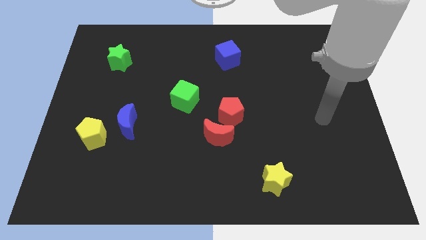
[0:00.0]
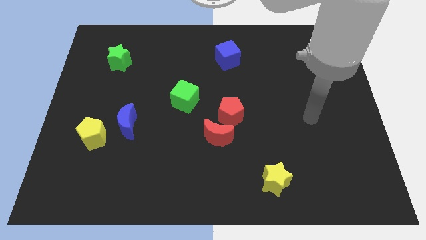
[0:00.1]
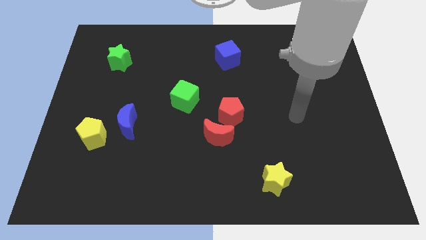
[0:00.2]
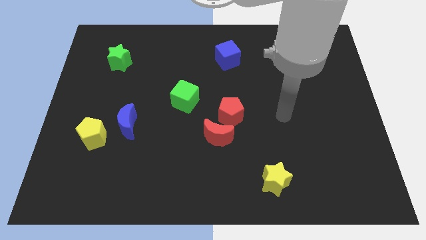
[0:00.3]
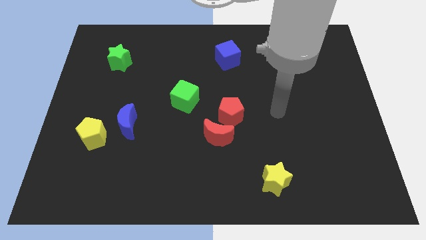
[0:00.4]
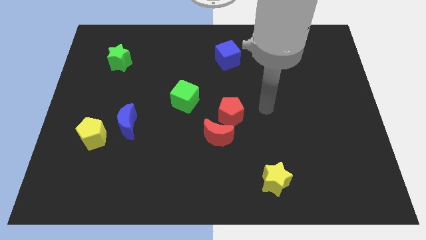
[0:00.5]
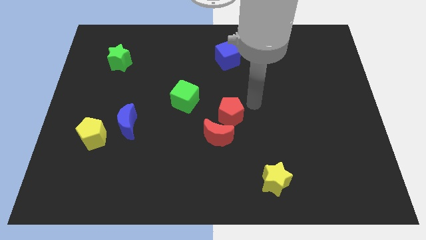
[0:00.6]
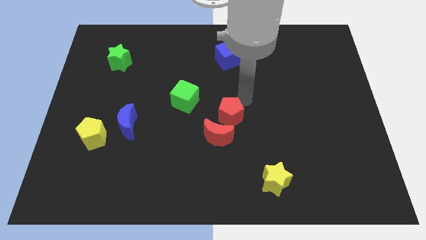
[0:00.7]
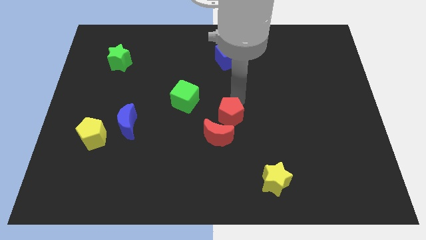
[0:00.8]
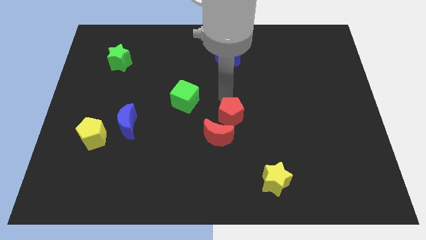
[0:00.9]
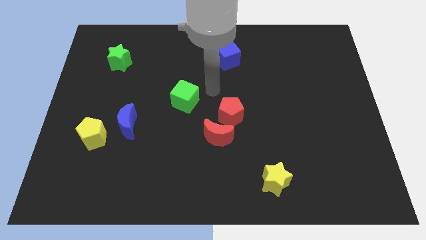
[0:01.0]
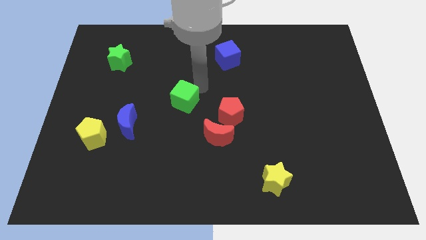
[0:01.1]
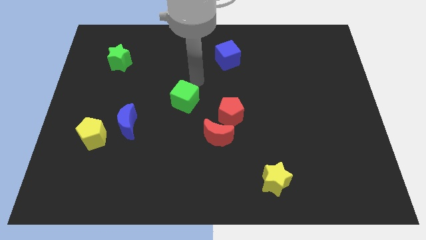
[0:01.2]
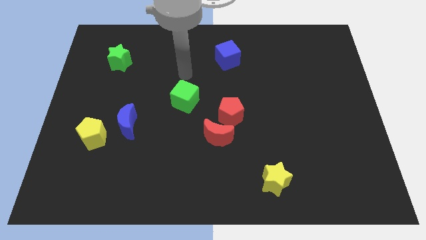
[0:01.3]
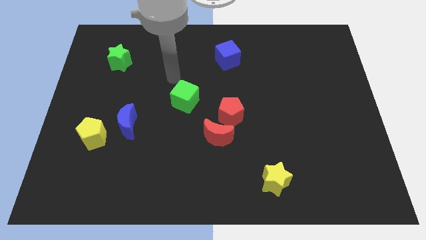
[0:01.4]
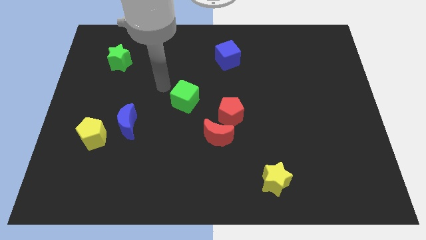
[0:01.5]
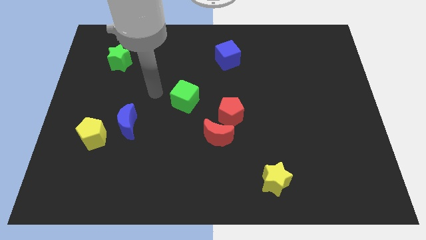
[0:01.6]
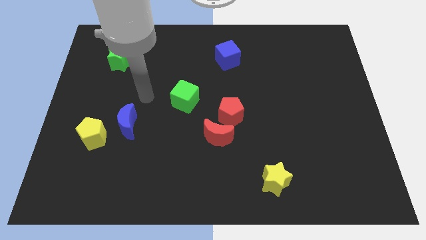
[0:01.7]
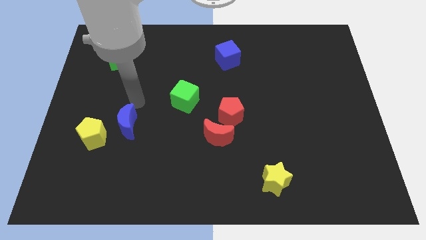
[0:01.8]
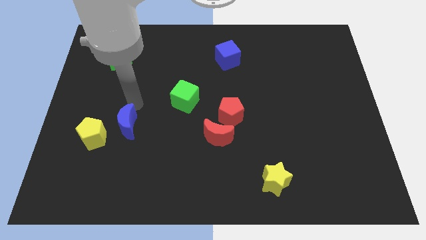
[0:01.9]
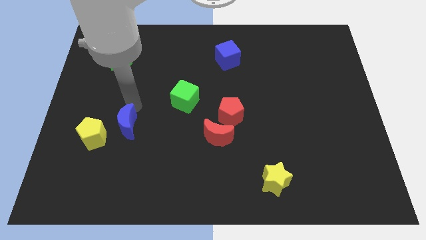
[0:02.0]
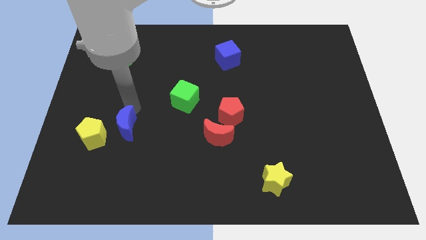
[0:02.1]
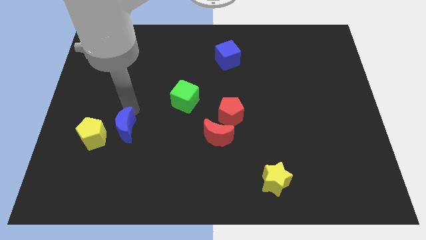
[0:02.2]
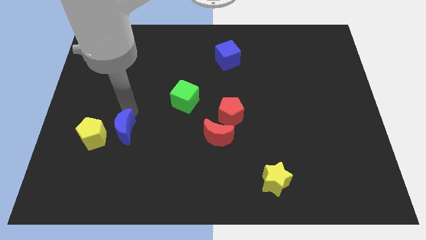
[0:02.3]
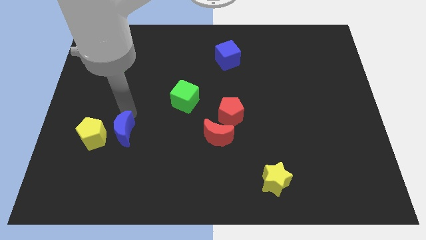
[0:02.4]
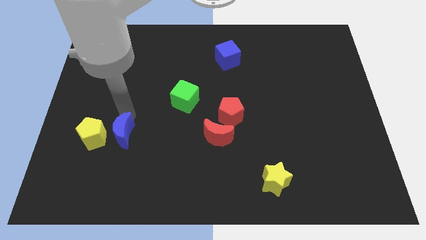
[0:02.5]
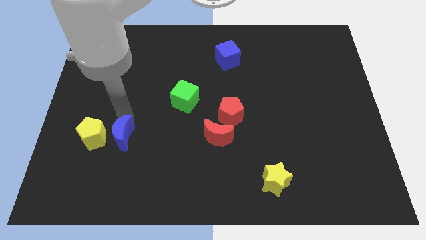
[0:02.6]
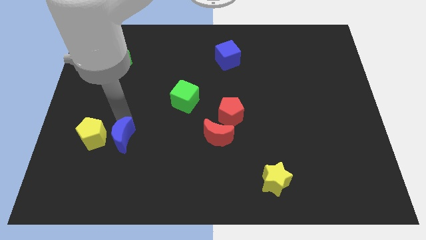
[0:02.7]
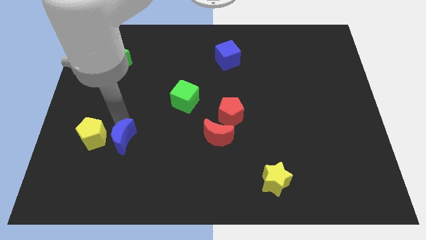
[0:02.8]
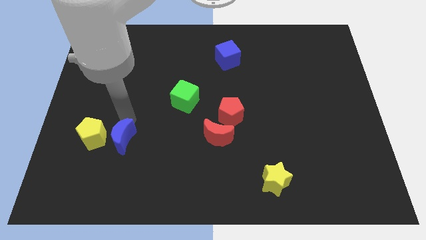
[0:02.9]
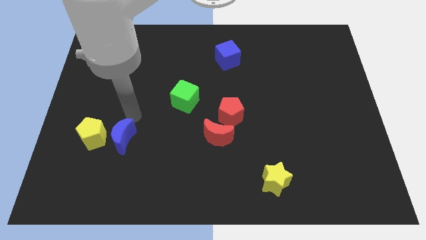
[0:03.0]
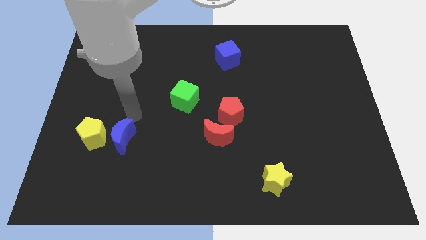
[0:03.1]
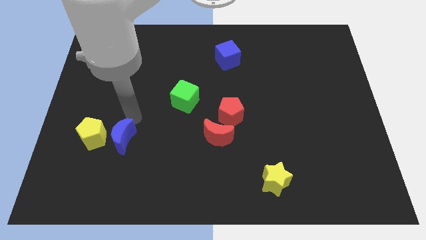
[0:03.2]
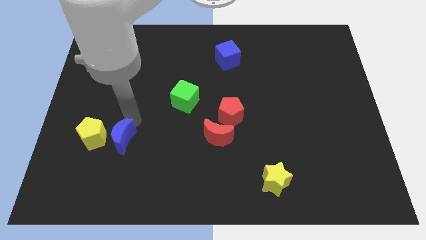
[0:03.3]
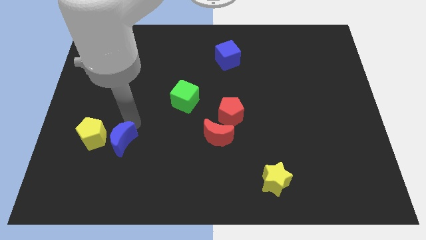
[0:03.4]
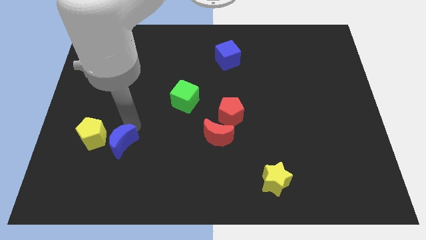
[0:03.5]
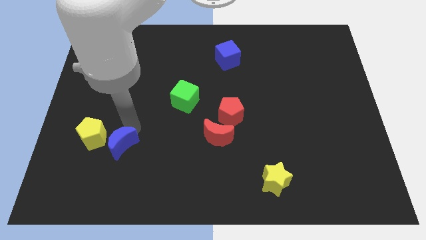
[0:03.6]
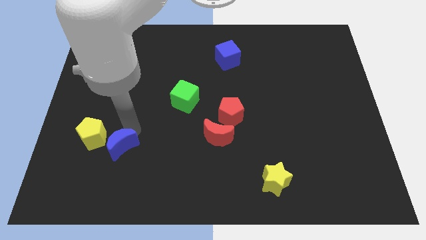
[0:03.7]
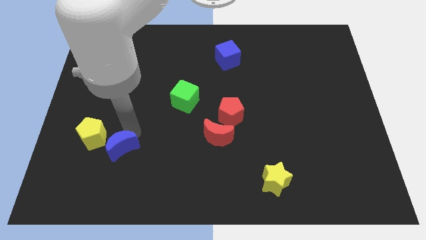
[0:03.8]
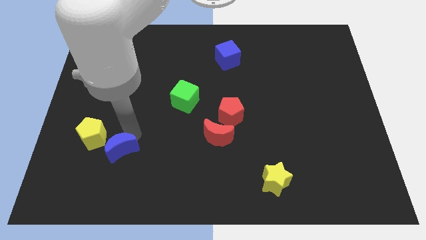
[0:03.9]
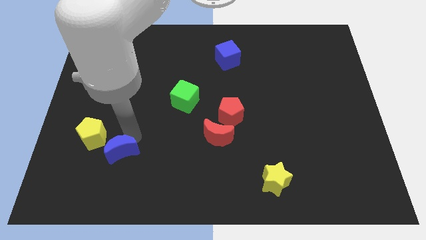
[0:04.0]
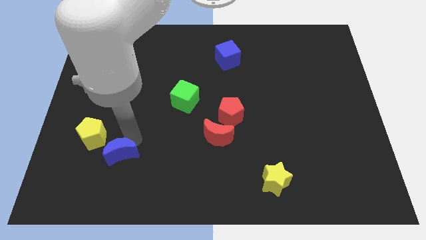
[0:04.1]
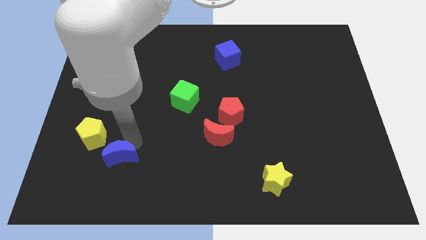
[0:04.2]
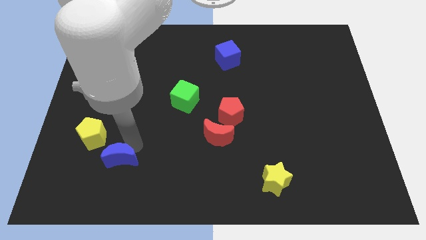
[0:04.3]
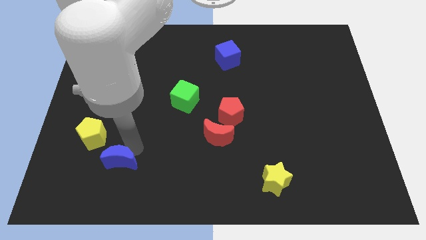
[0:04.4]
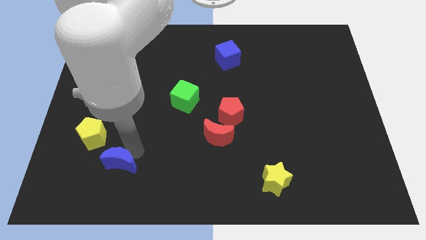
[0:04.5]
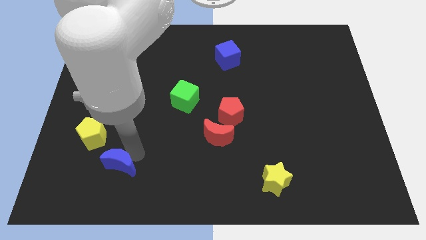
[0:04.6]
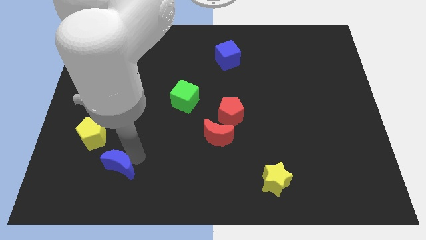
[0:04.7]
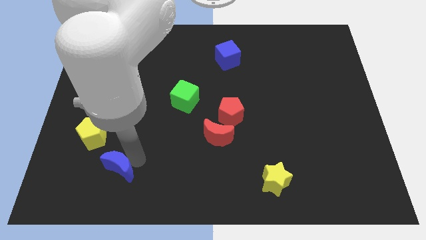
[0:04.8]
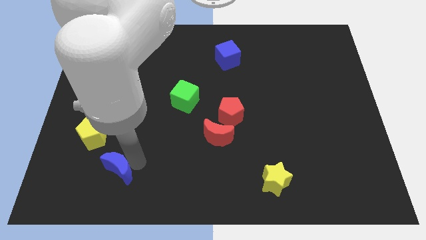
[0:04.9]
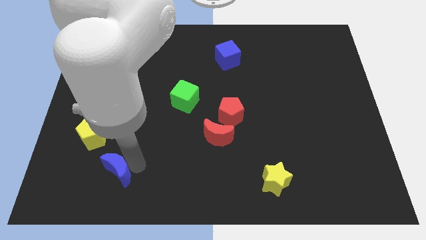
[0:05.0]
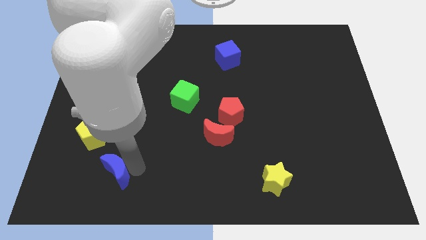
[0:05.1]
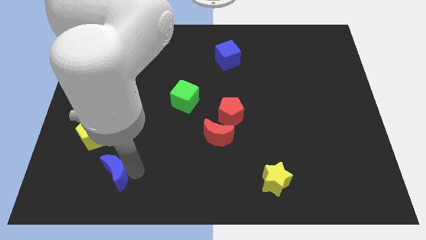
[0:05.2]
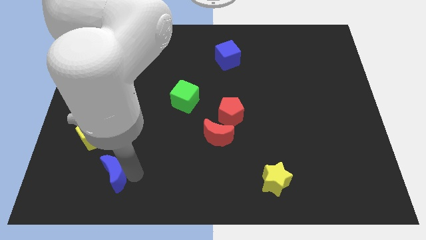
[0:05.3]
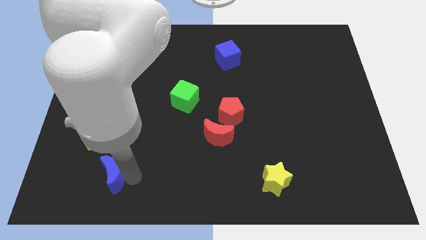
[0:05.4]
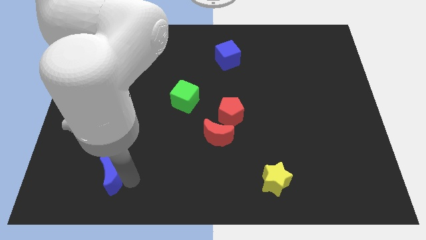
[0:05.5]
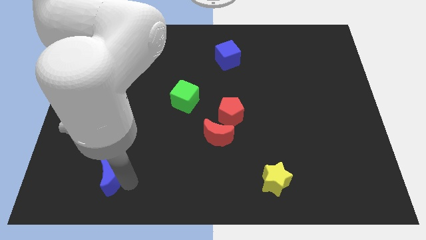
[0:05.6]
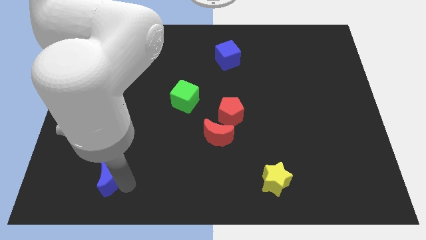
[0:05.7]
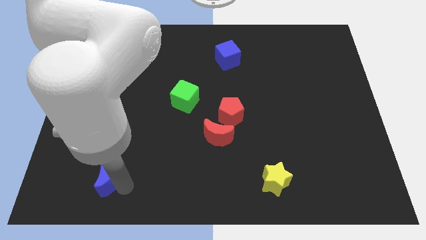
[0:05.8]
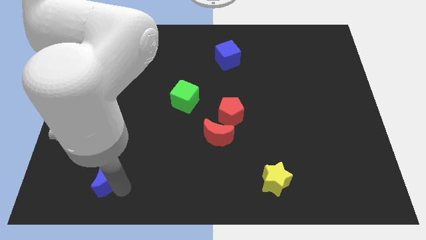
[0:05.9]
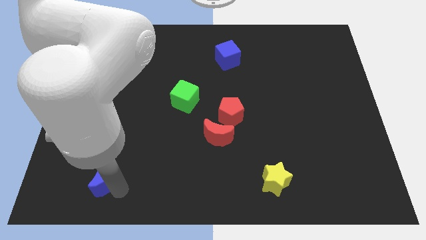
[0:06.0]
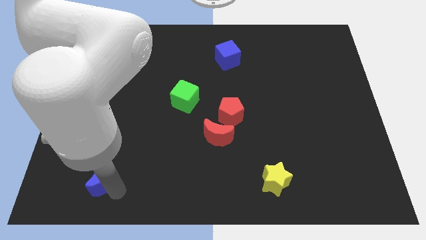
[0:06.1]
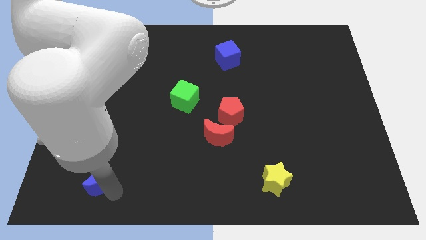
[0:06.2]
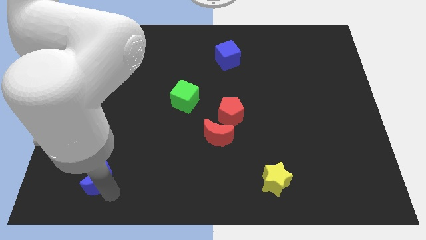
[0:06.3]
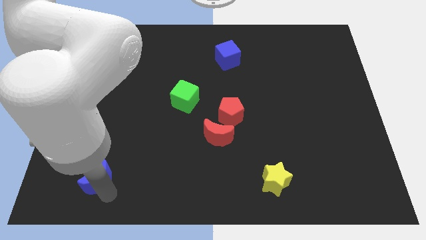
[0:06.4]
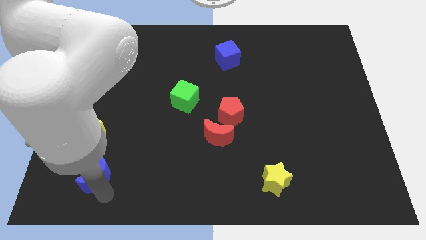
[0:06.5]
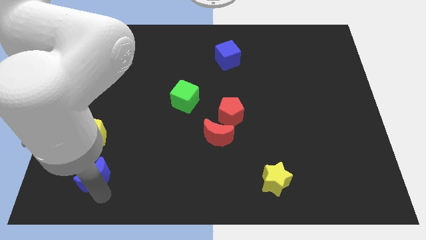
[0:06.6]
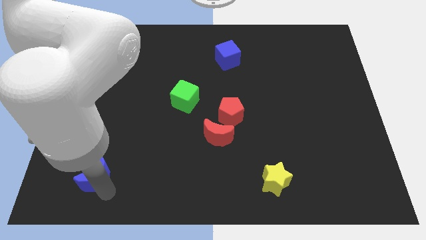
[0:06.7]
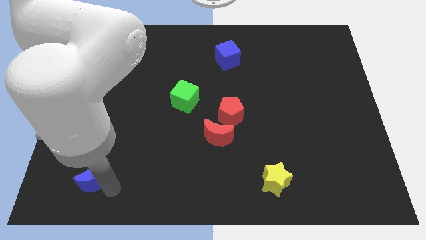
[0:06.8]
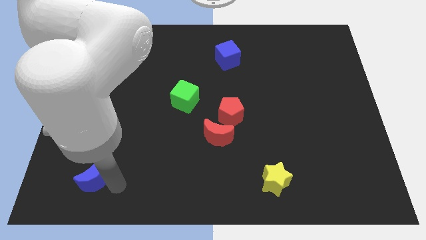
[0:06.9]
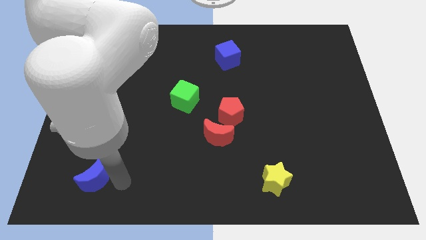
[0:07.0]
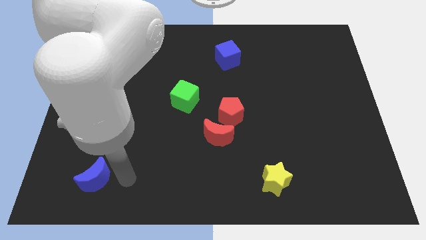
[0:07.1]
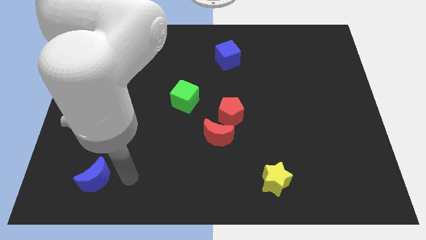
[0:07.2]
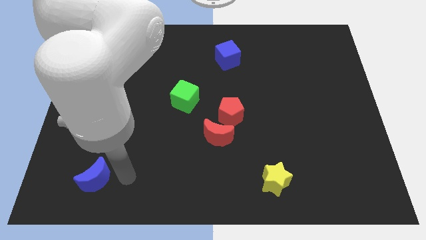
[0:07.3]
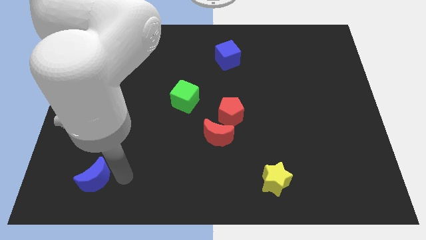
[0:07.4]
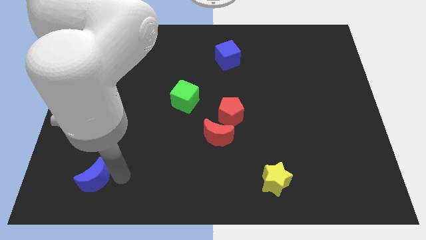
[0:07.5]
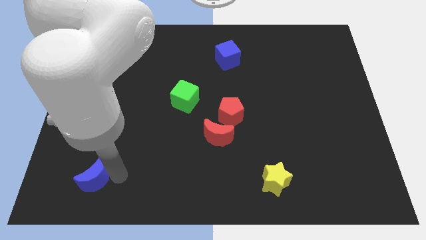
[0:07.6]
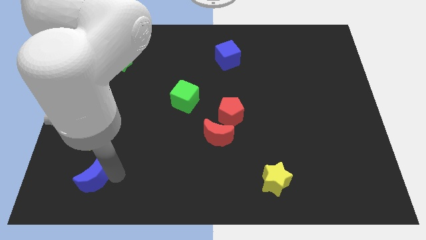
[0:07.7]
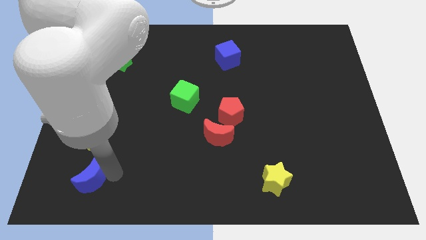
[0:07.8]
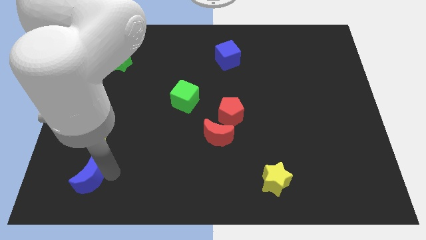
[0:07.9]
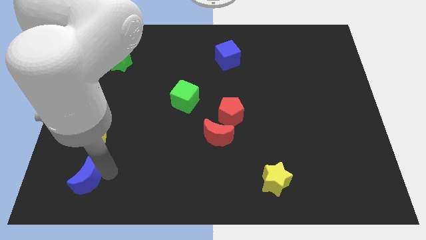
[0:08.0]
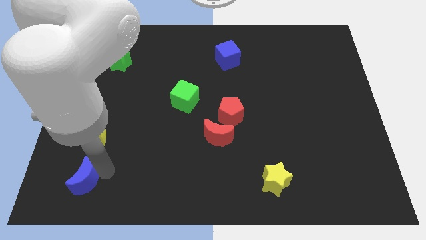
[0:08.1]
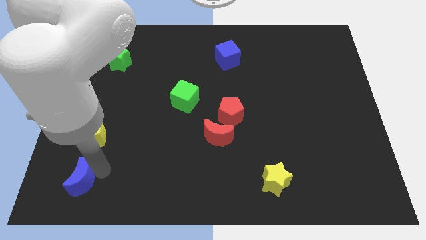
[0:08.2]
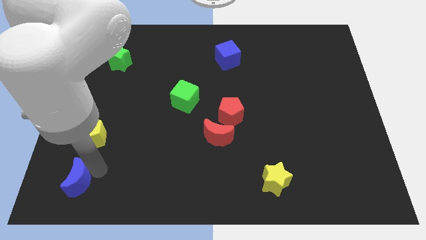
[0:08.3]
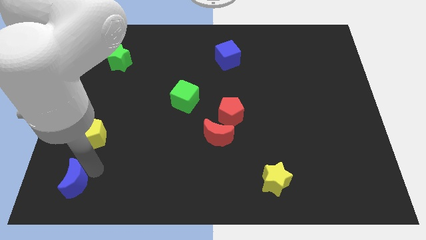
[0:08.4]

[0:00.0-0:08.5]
move the blue moon to the lower left corner
